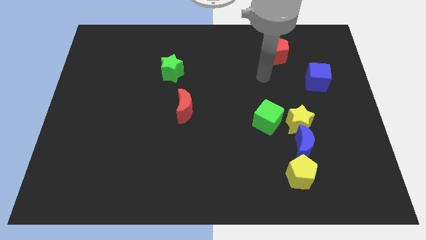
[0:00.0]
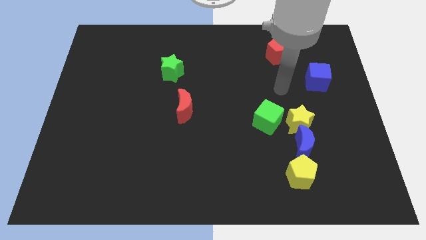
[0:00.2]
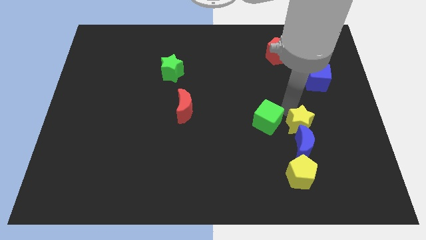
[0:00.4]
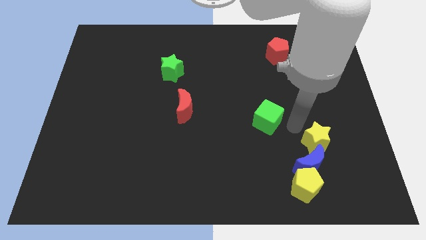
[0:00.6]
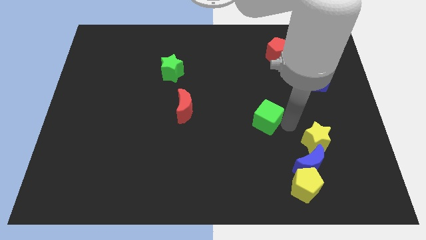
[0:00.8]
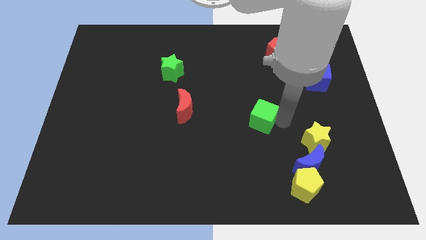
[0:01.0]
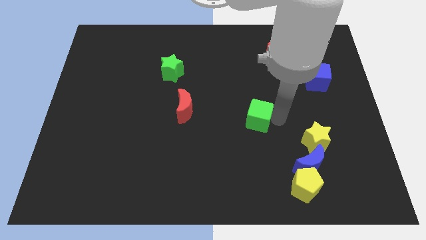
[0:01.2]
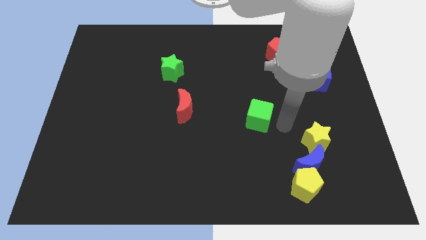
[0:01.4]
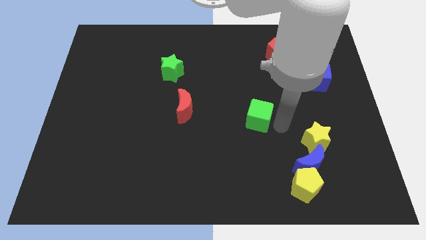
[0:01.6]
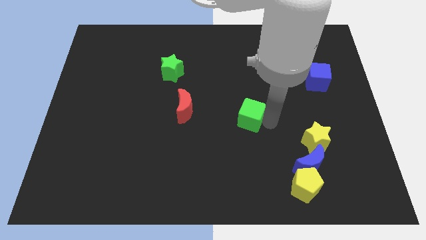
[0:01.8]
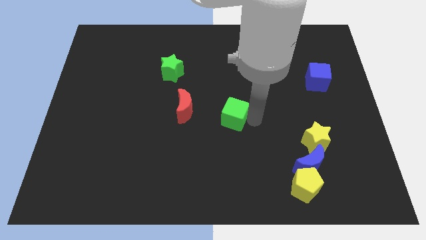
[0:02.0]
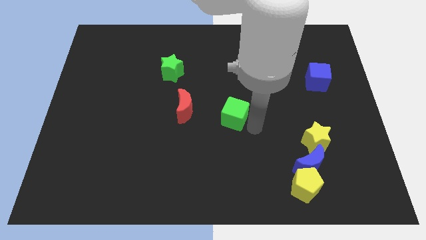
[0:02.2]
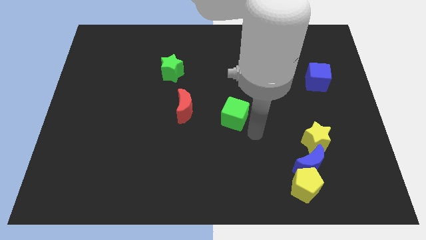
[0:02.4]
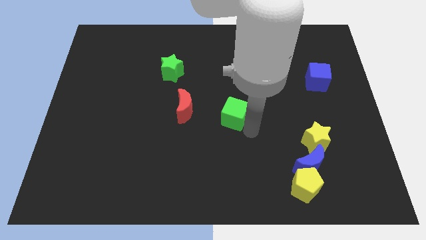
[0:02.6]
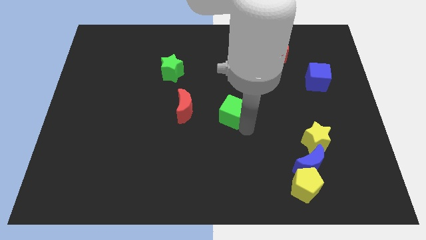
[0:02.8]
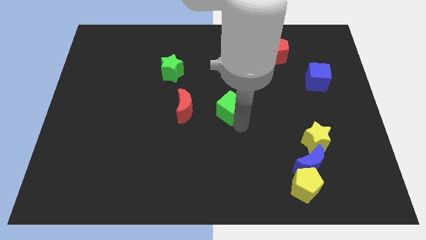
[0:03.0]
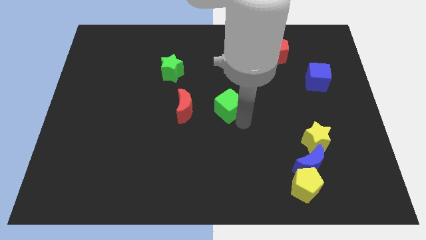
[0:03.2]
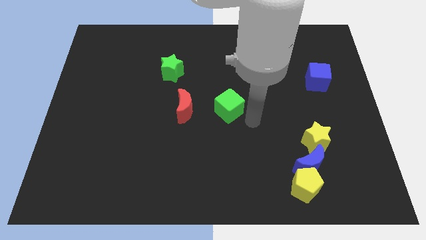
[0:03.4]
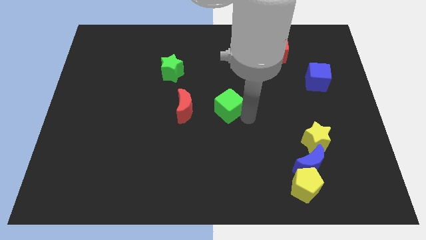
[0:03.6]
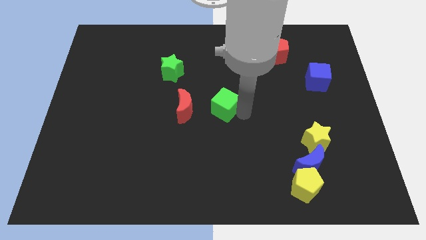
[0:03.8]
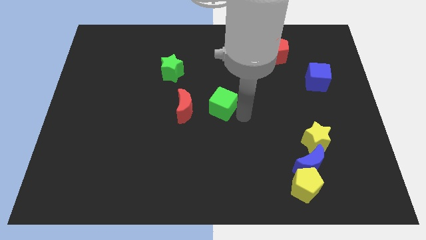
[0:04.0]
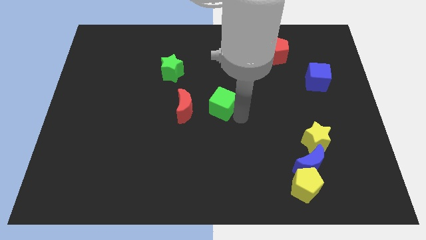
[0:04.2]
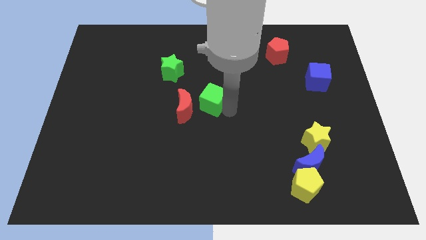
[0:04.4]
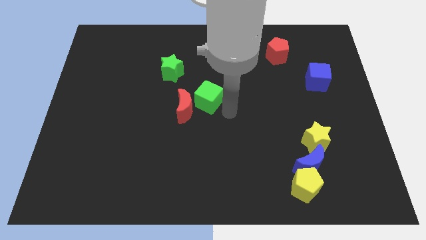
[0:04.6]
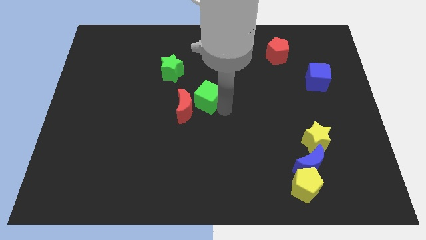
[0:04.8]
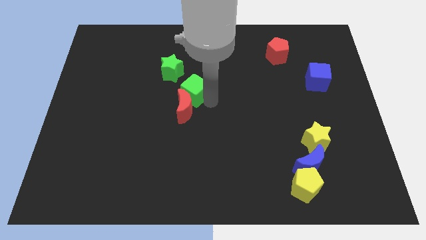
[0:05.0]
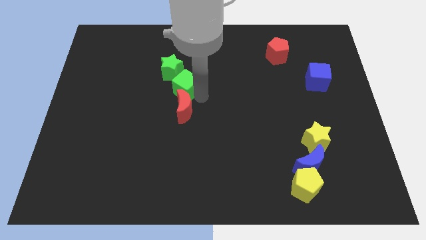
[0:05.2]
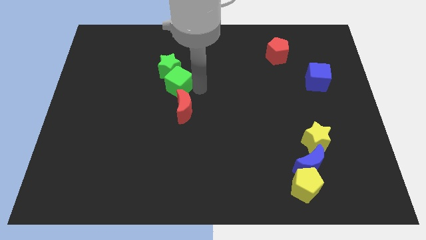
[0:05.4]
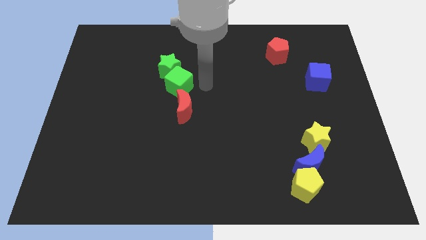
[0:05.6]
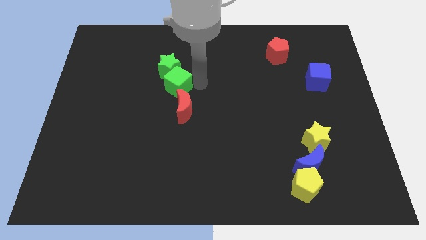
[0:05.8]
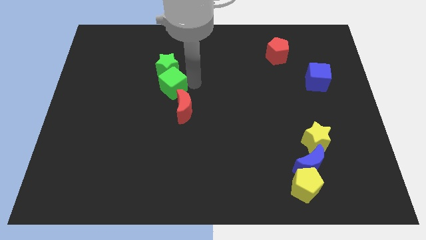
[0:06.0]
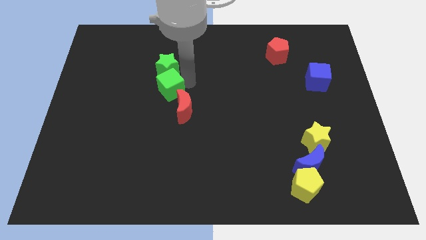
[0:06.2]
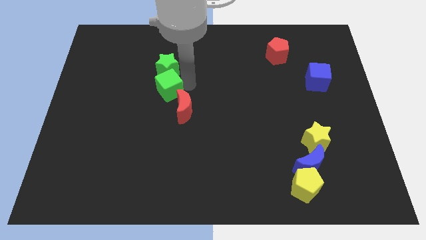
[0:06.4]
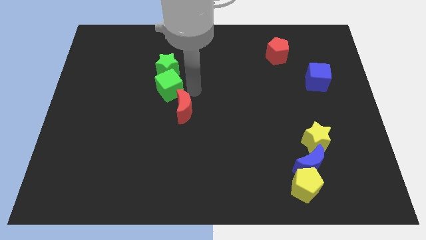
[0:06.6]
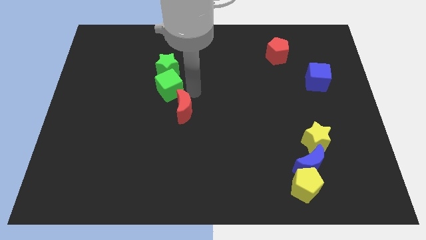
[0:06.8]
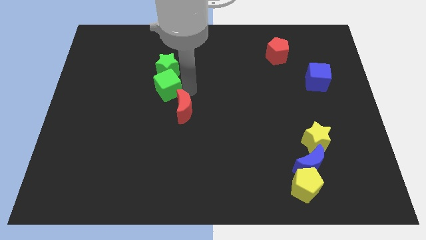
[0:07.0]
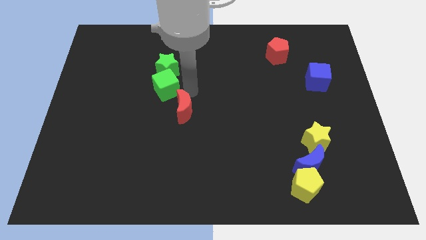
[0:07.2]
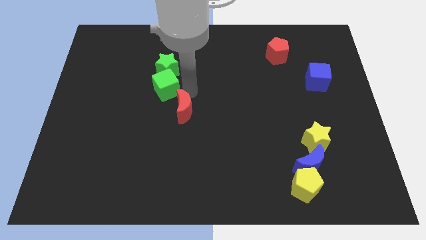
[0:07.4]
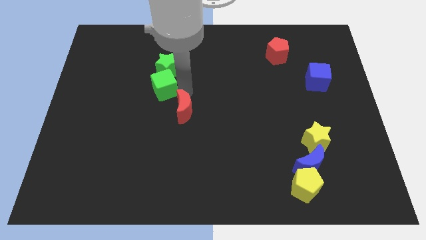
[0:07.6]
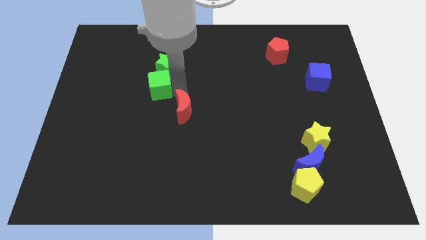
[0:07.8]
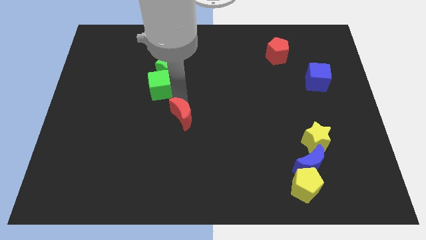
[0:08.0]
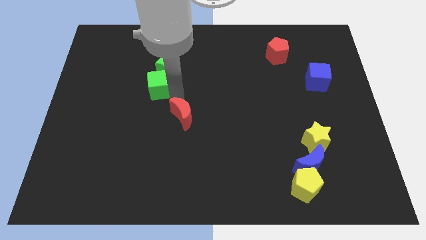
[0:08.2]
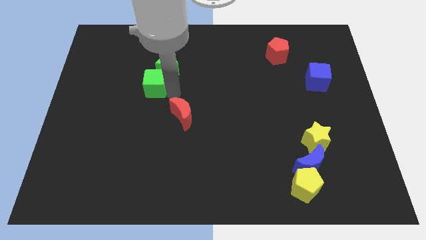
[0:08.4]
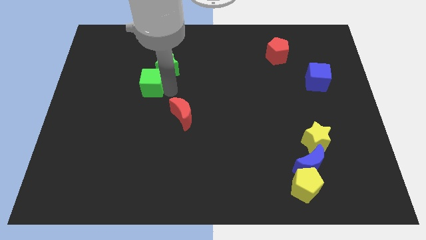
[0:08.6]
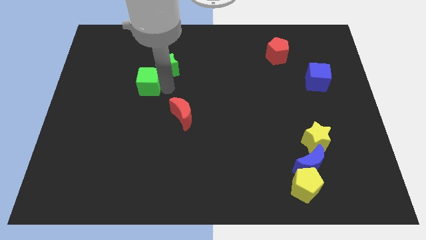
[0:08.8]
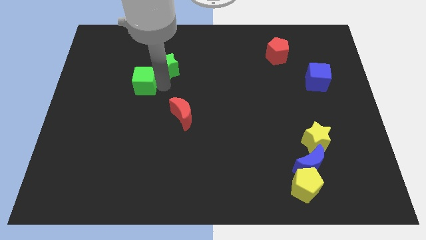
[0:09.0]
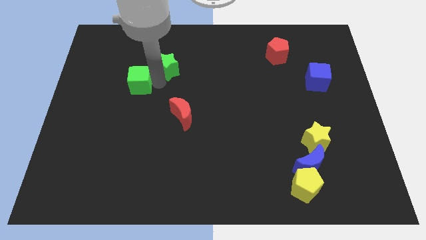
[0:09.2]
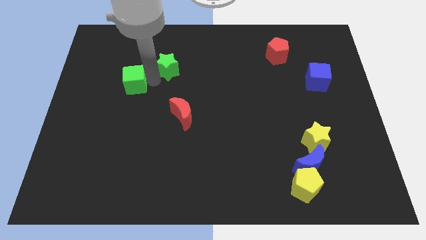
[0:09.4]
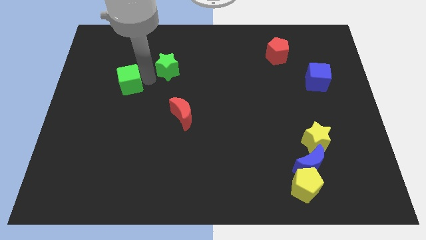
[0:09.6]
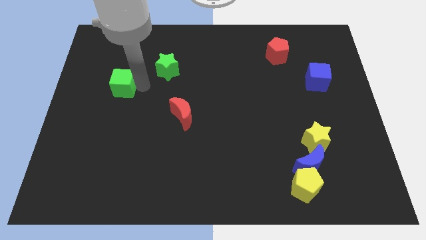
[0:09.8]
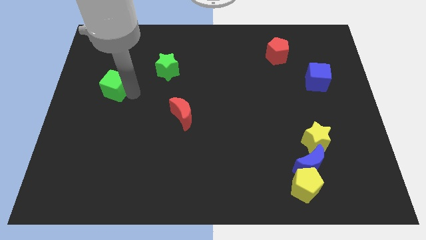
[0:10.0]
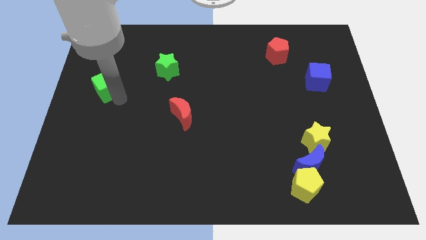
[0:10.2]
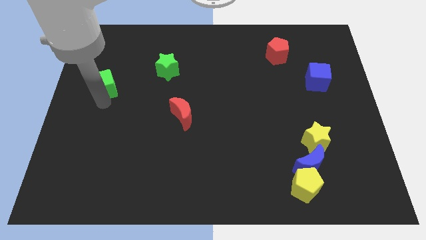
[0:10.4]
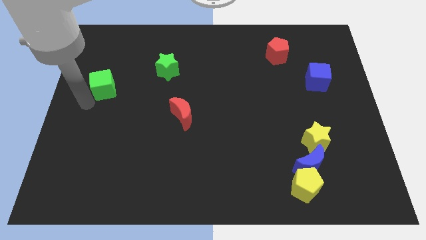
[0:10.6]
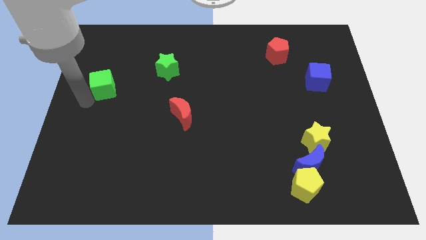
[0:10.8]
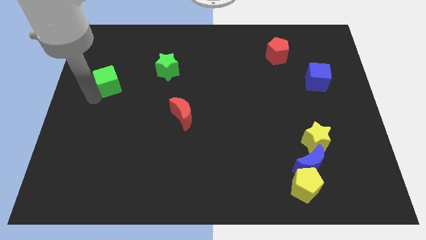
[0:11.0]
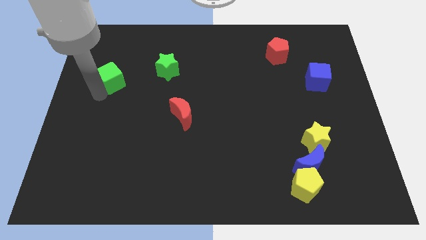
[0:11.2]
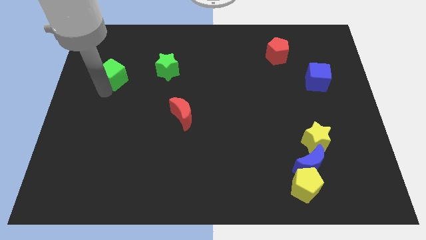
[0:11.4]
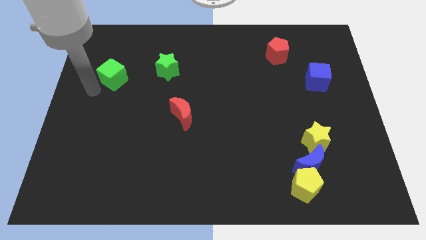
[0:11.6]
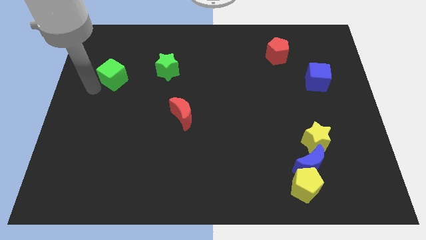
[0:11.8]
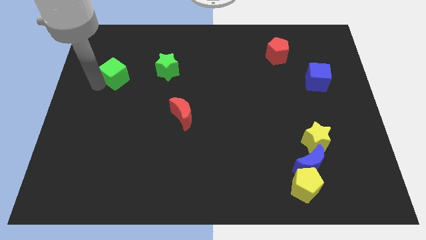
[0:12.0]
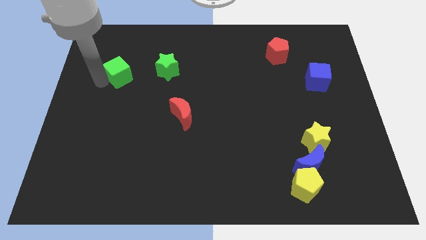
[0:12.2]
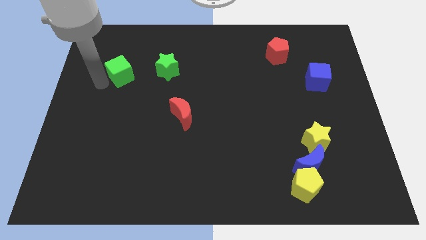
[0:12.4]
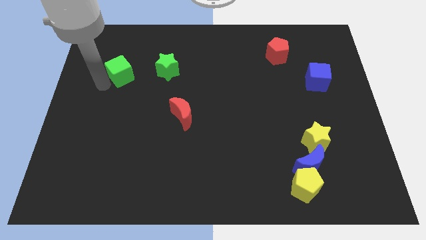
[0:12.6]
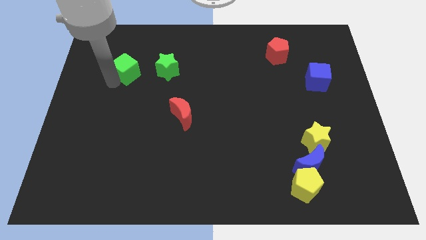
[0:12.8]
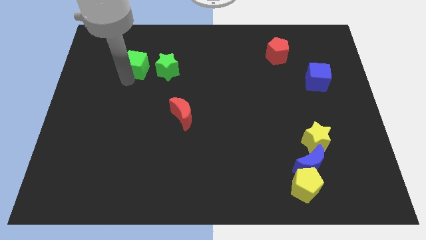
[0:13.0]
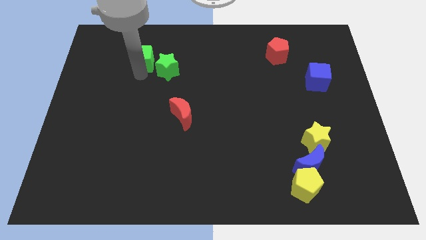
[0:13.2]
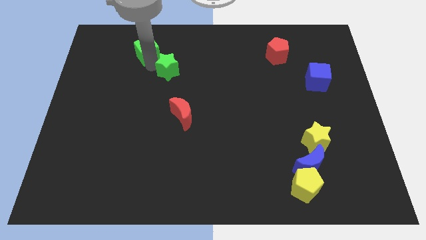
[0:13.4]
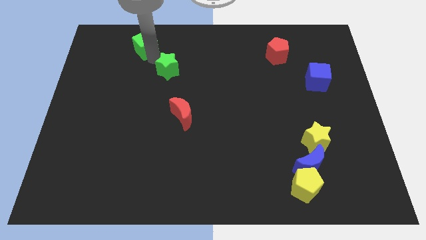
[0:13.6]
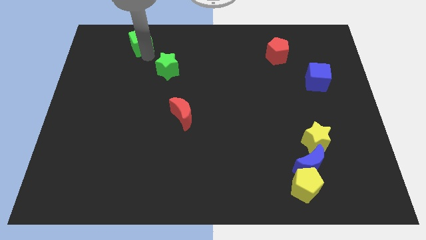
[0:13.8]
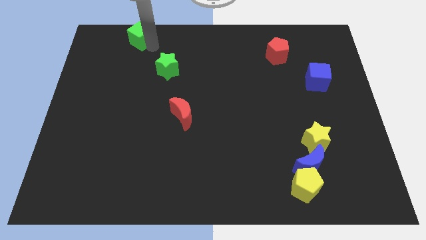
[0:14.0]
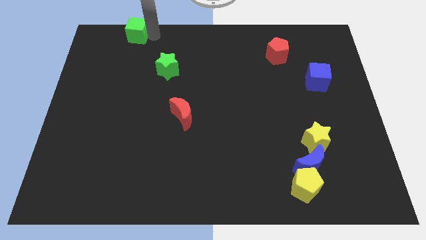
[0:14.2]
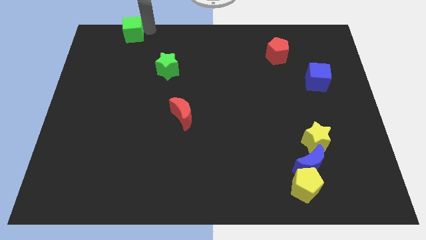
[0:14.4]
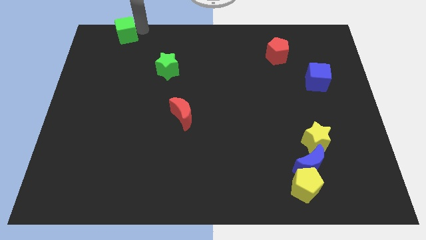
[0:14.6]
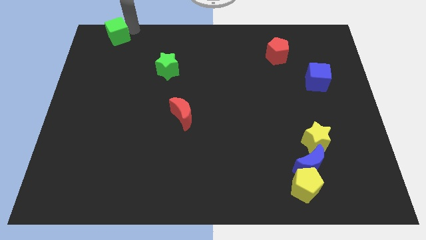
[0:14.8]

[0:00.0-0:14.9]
push the green cube to the upper left corner
